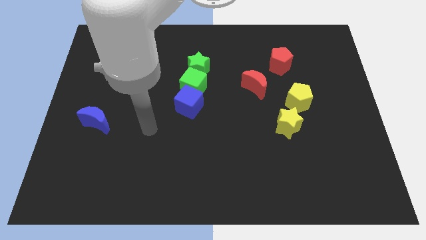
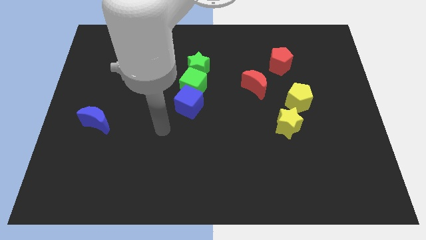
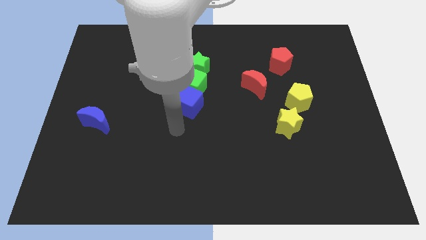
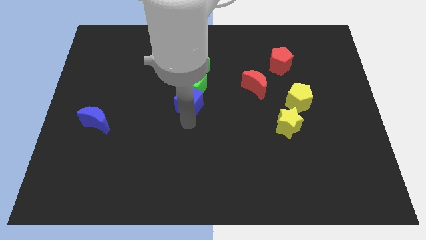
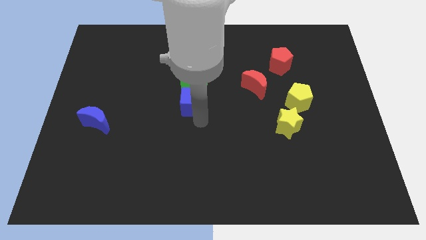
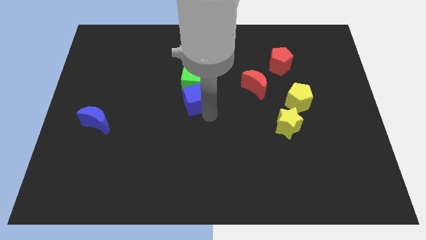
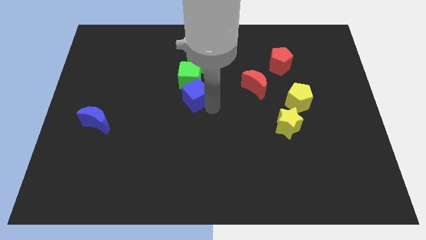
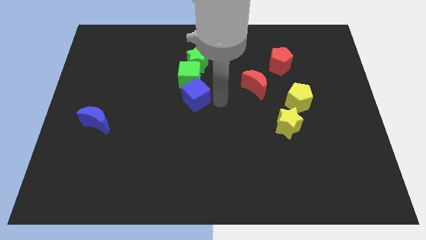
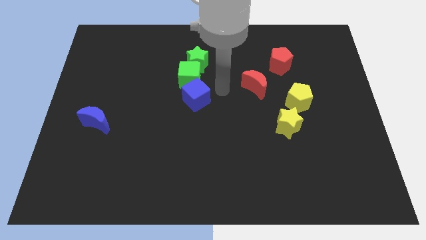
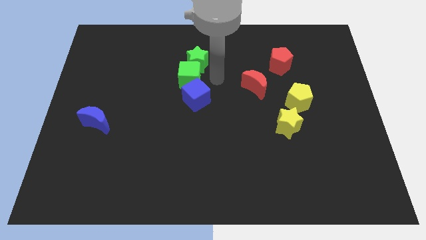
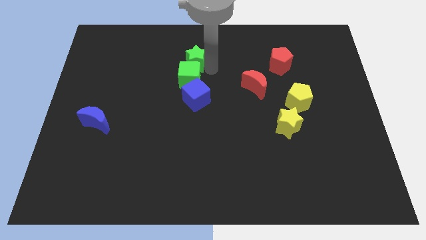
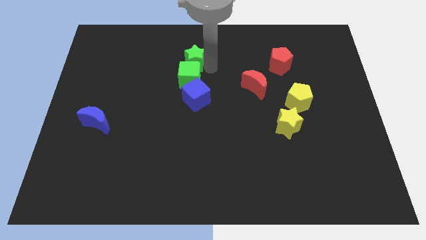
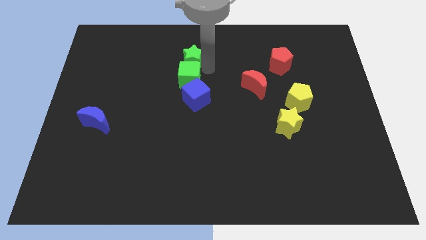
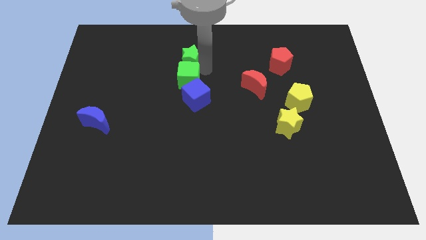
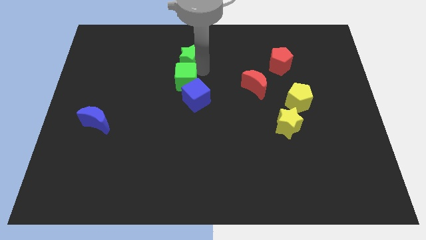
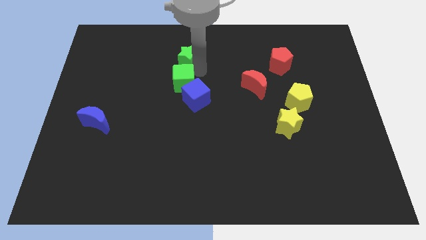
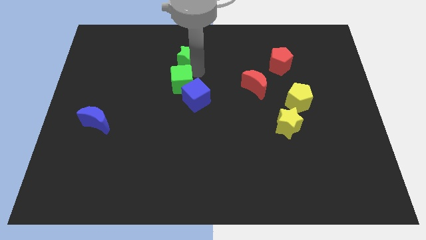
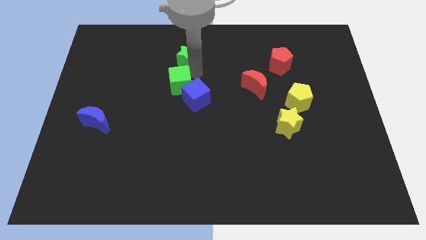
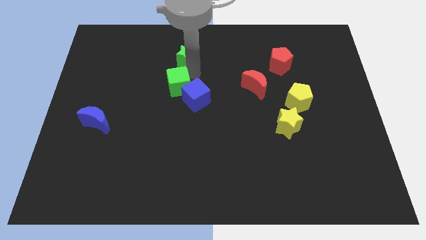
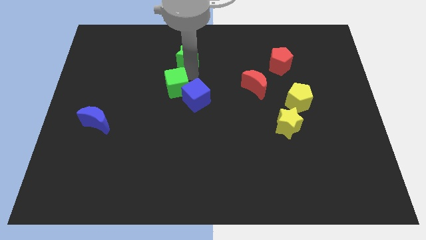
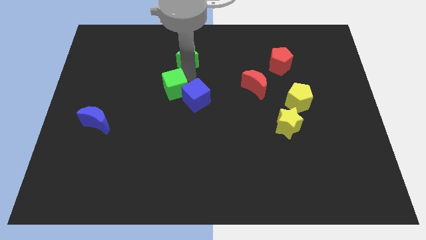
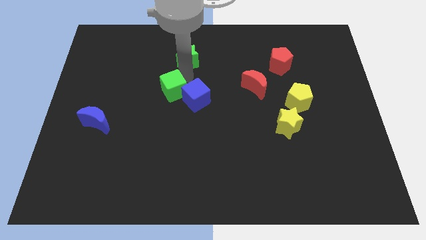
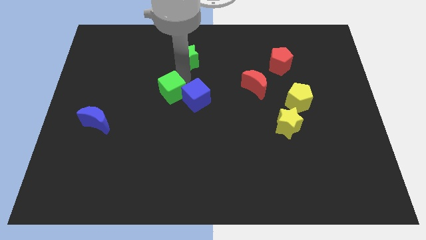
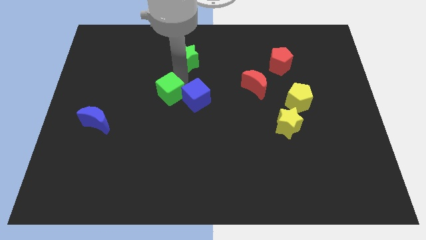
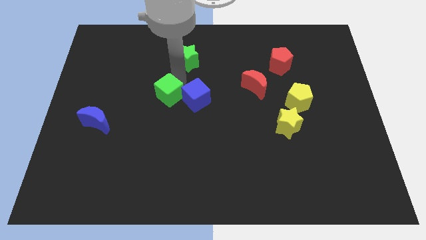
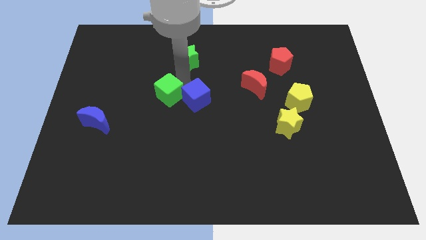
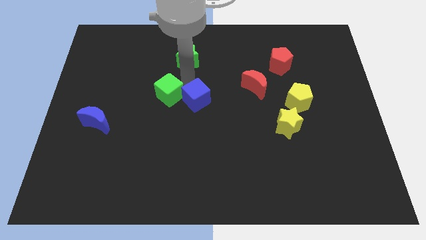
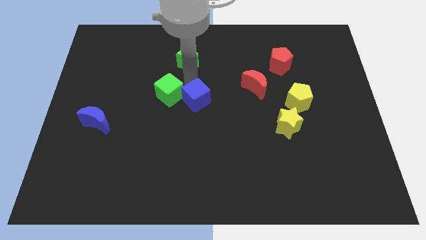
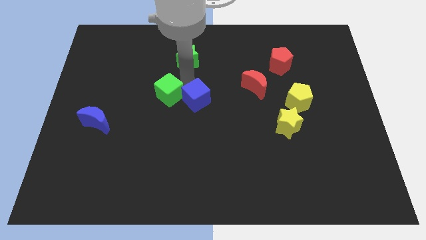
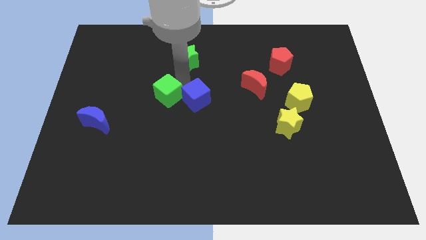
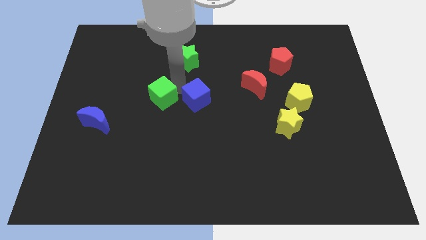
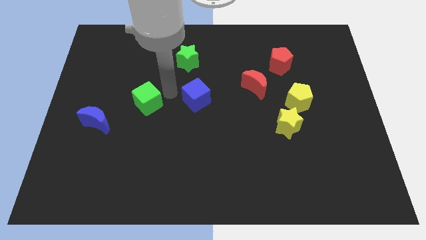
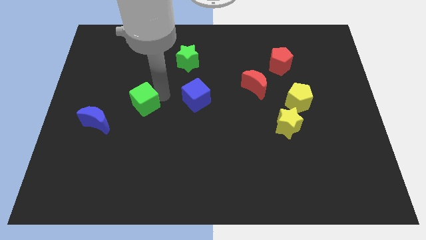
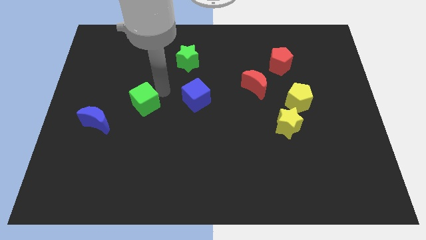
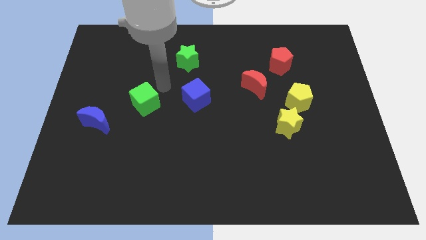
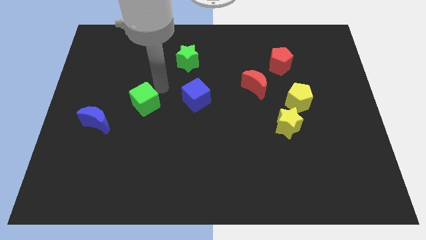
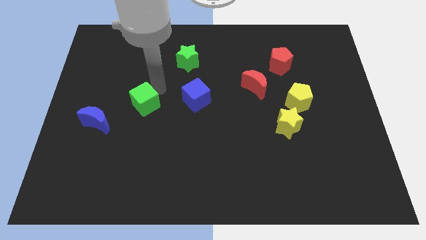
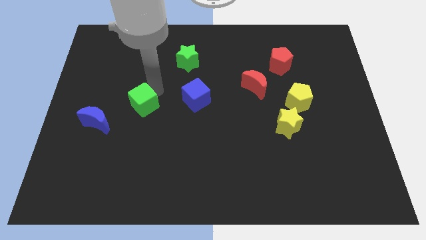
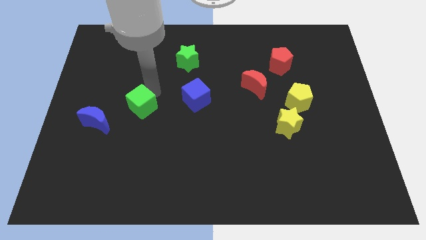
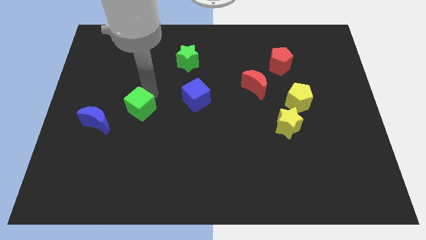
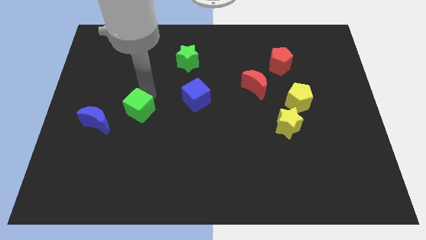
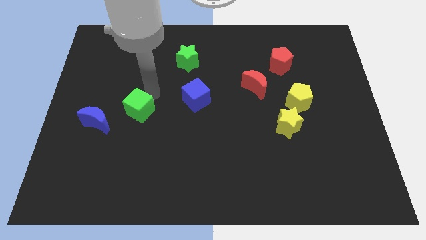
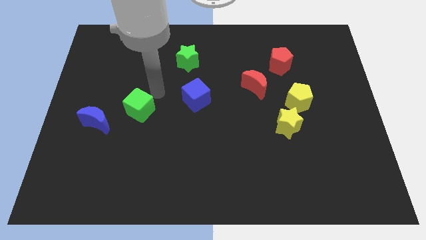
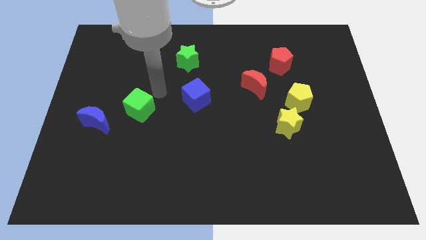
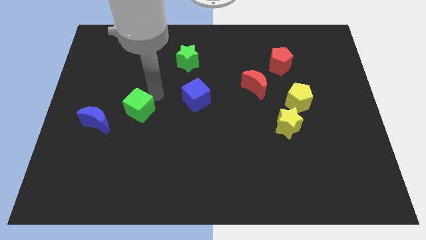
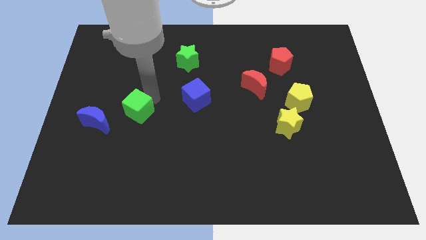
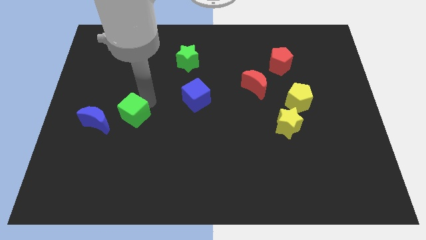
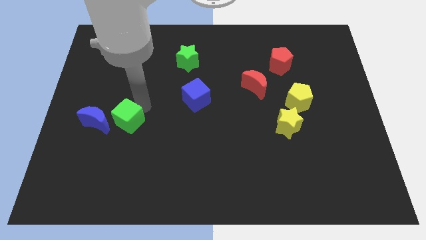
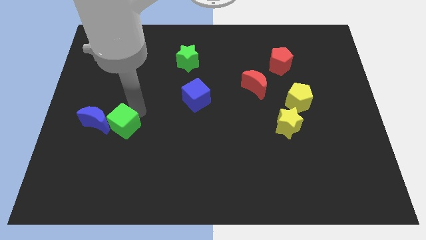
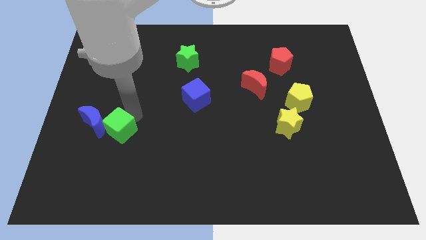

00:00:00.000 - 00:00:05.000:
slide the green cube downwards and to the left diagonally

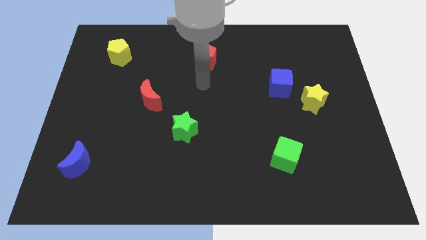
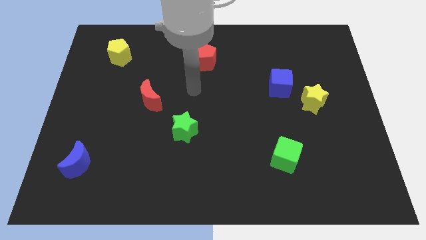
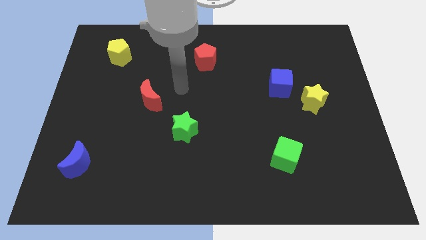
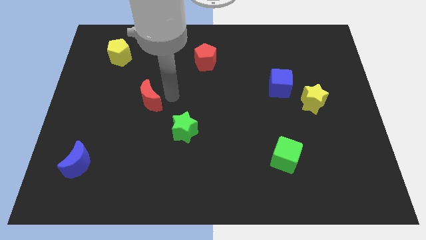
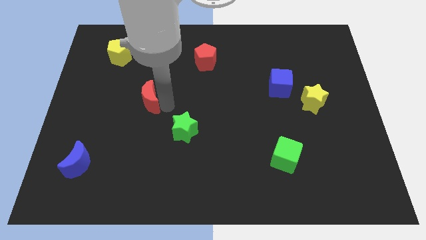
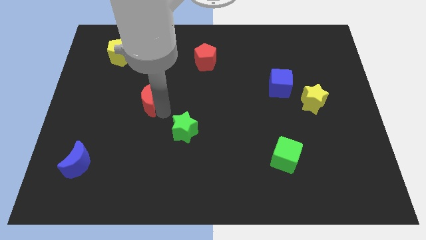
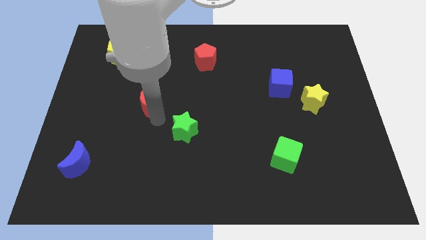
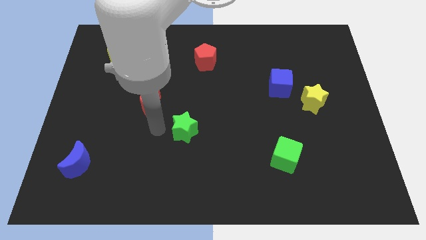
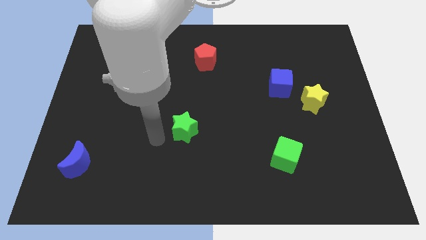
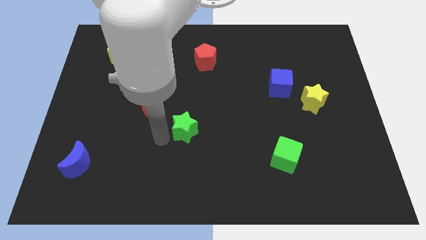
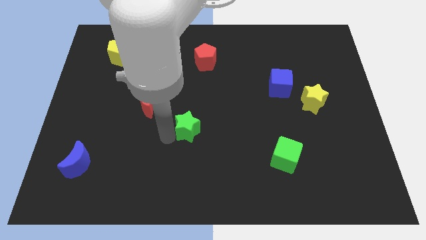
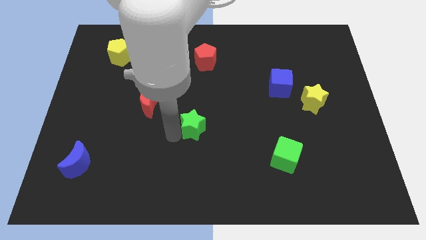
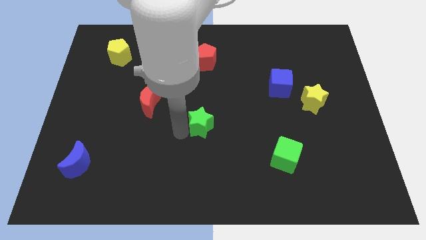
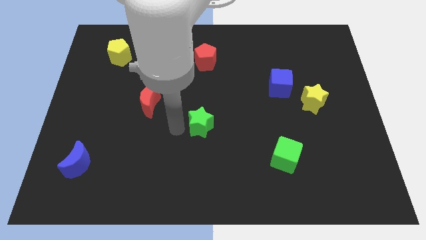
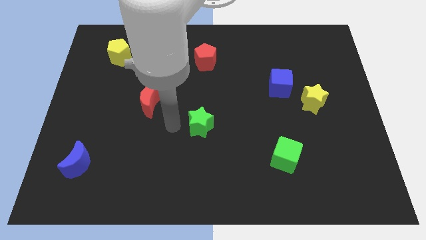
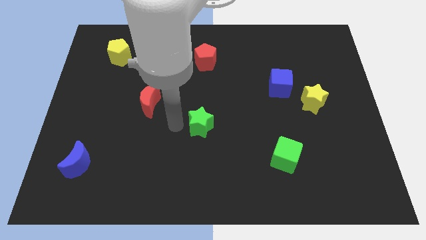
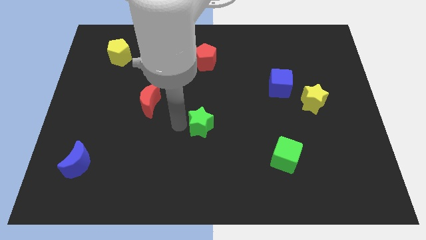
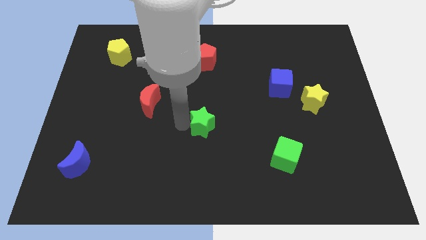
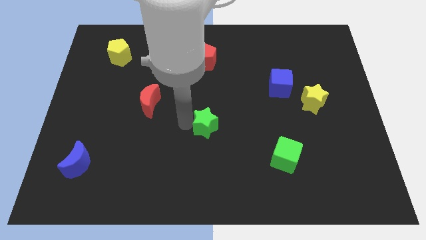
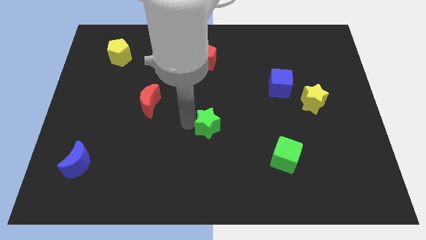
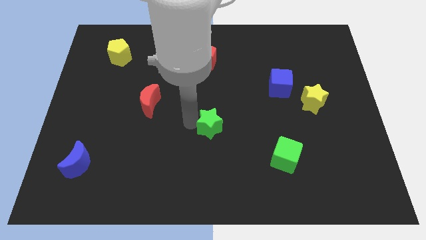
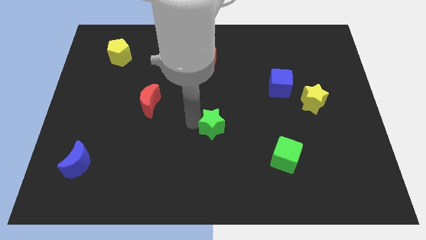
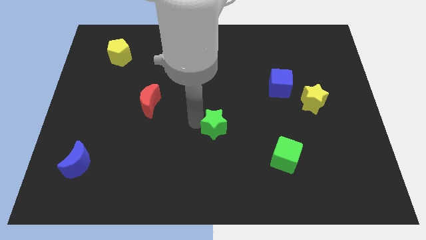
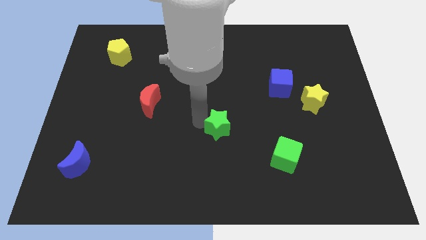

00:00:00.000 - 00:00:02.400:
slide the green star to the right a little bit

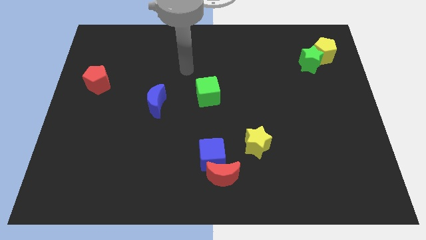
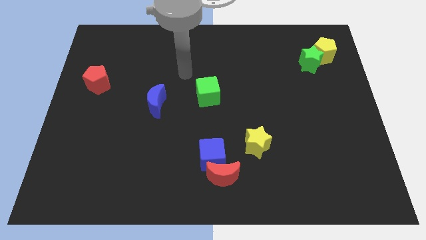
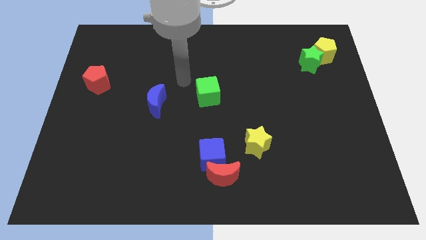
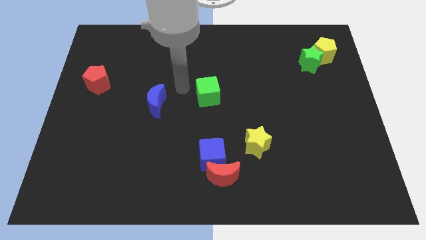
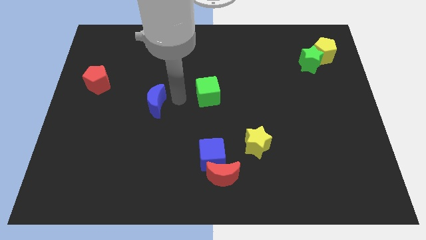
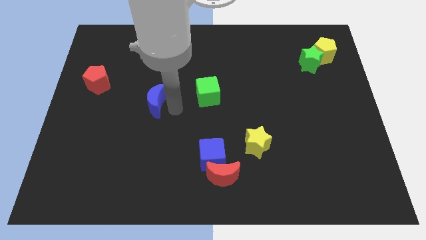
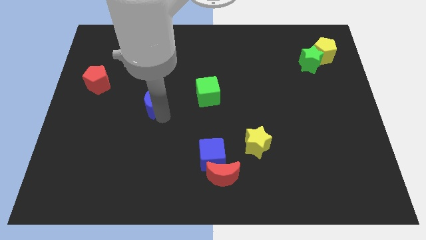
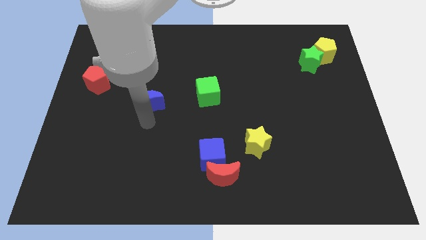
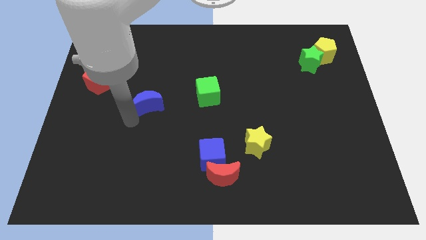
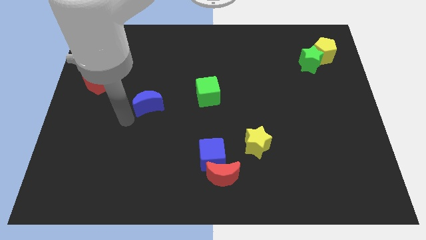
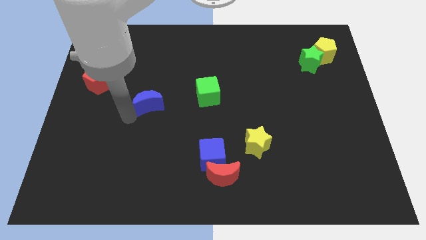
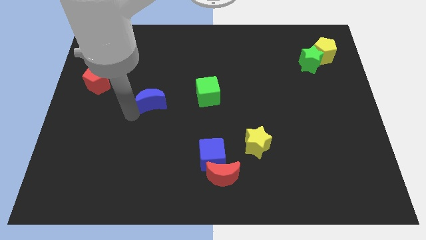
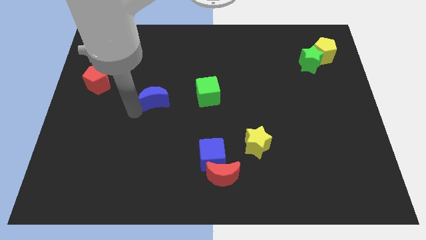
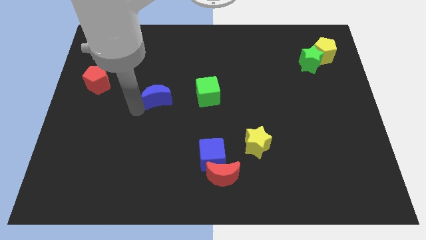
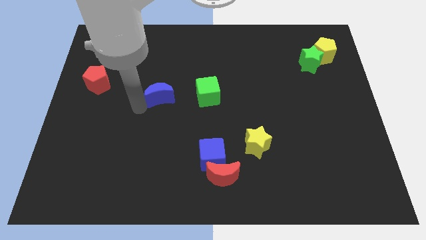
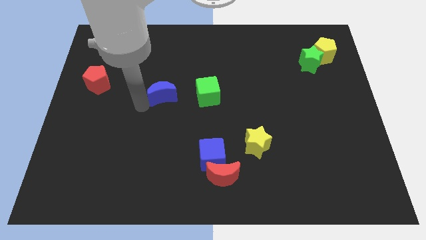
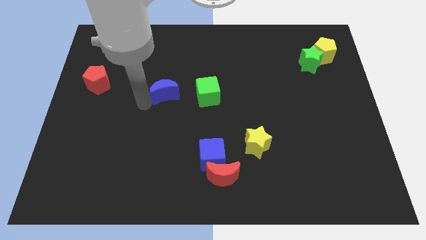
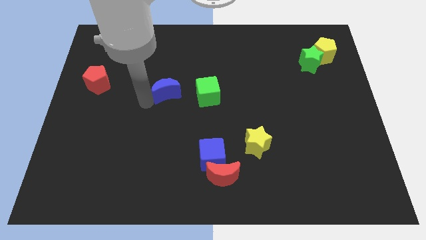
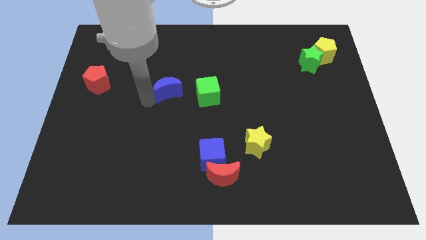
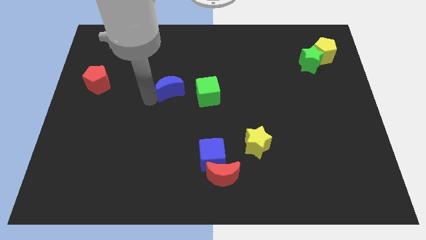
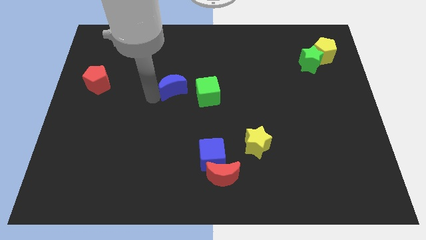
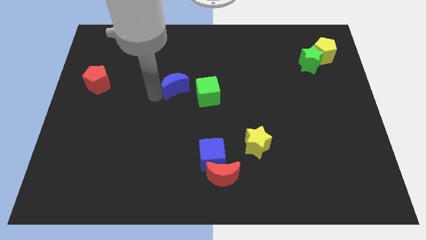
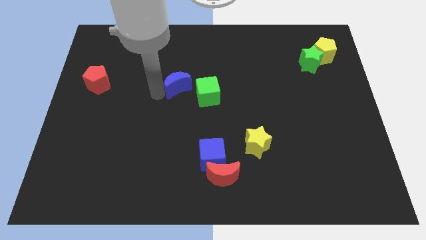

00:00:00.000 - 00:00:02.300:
move the blue moon slightly up and then right
